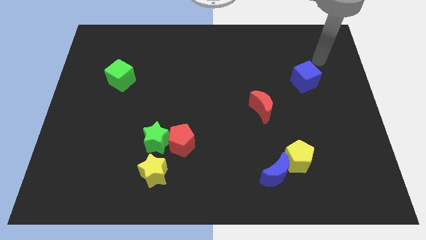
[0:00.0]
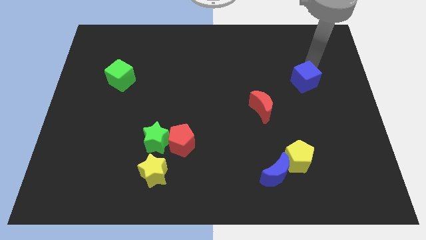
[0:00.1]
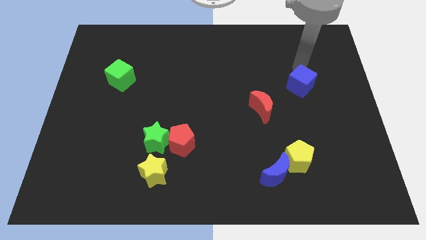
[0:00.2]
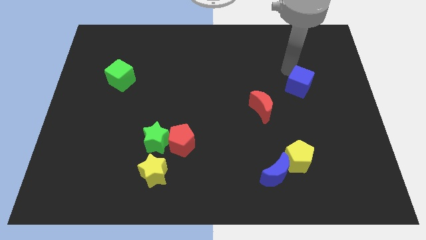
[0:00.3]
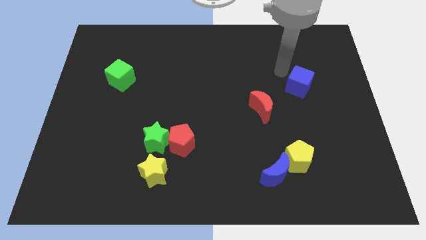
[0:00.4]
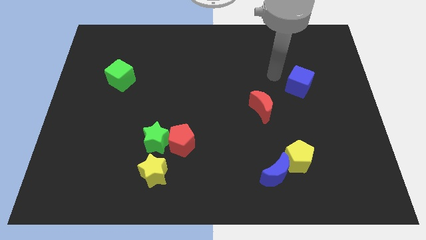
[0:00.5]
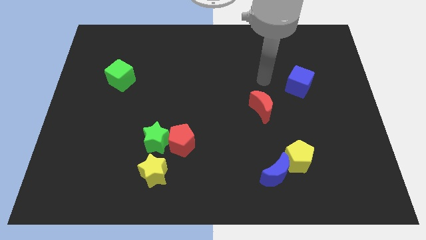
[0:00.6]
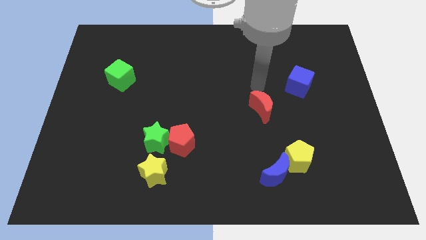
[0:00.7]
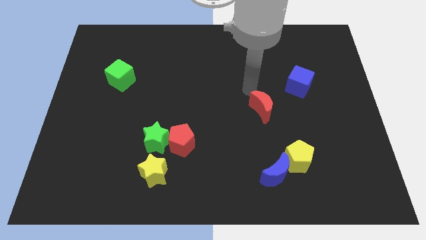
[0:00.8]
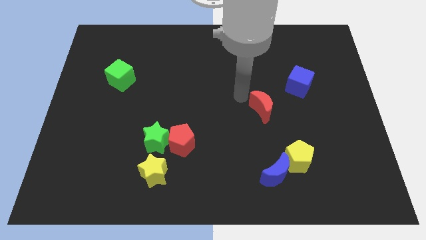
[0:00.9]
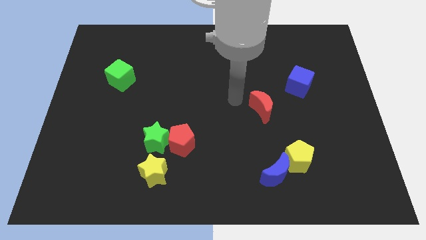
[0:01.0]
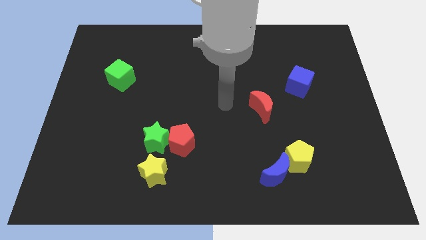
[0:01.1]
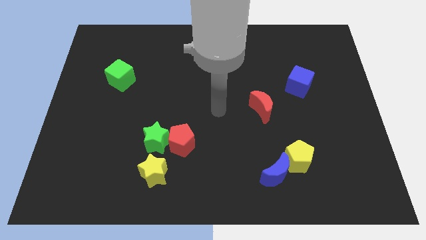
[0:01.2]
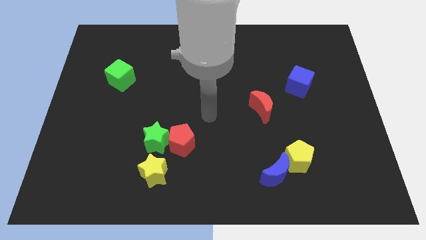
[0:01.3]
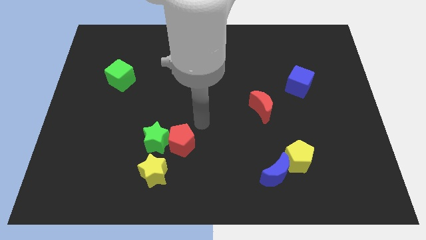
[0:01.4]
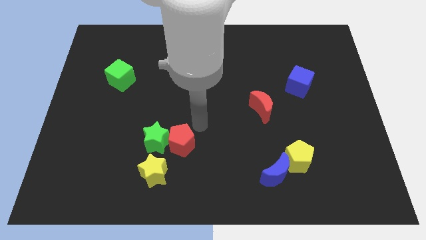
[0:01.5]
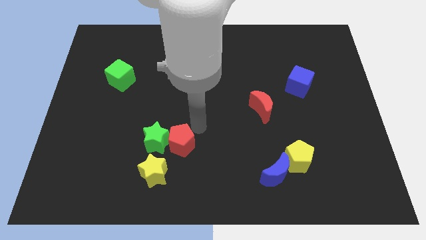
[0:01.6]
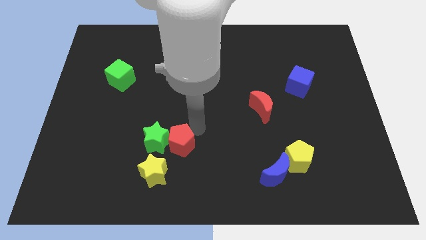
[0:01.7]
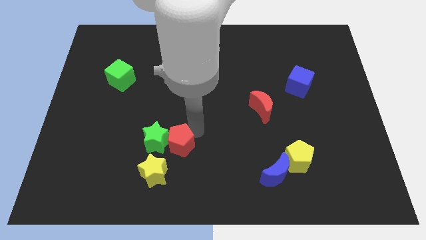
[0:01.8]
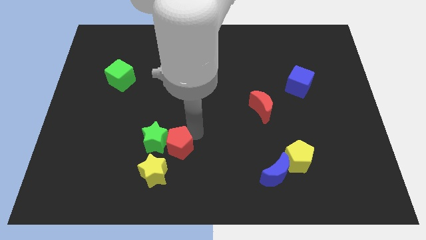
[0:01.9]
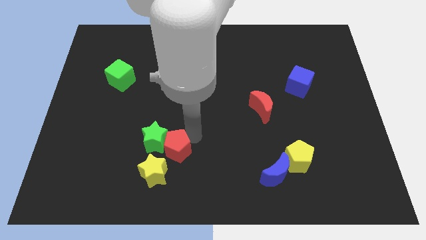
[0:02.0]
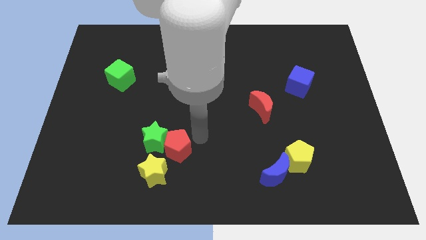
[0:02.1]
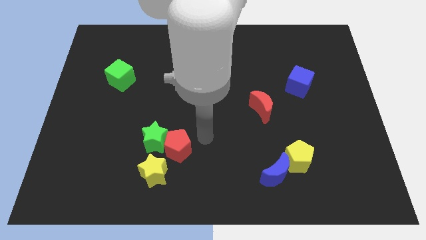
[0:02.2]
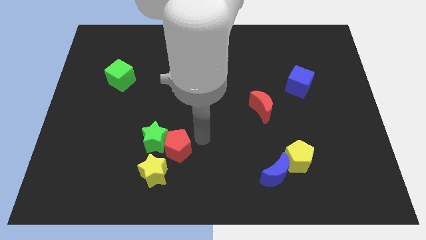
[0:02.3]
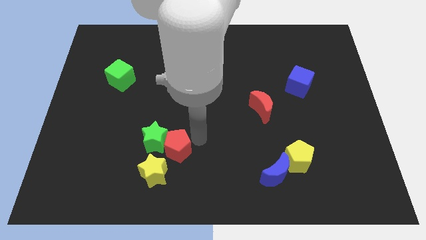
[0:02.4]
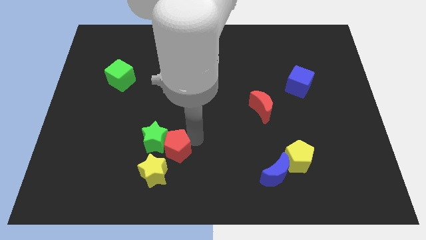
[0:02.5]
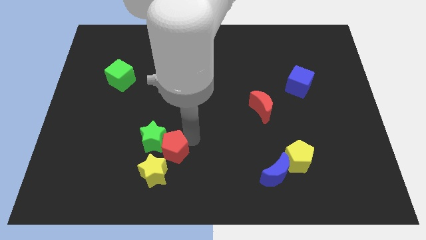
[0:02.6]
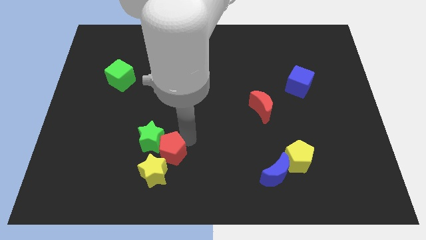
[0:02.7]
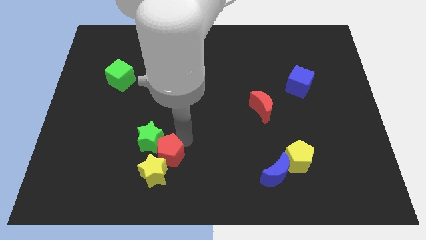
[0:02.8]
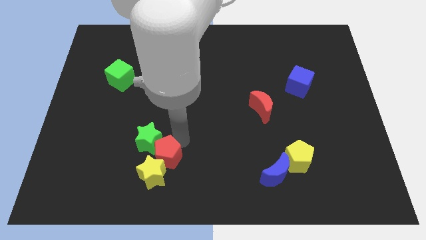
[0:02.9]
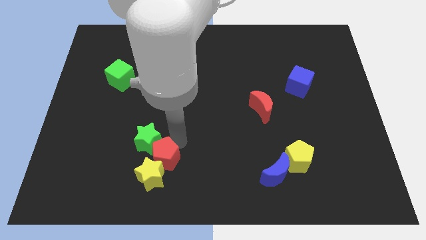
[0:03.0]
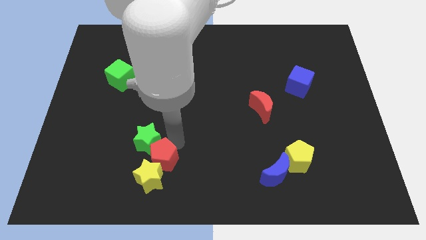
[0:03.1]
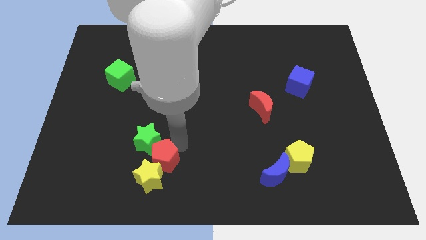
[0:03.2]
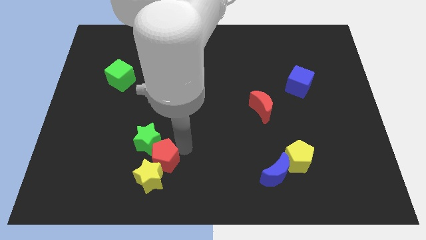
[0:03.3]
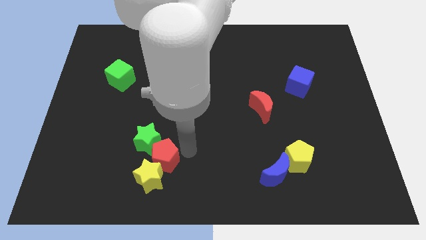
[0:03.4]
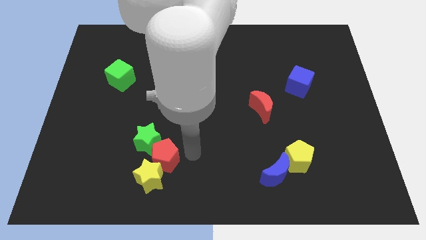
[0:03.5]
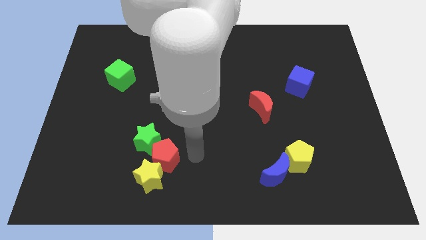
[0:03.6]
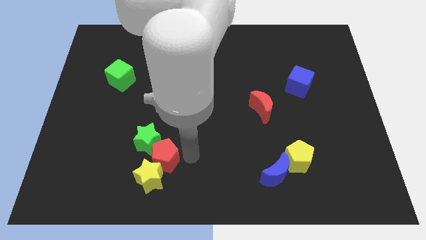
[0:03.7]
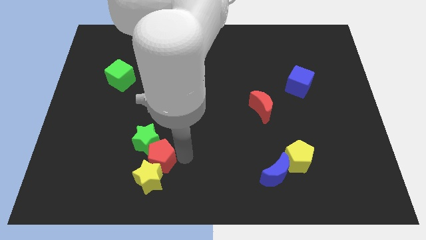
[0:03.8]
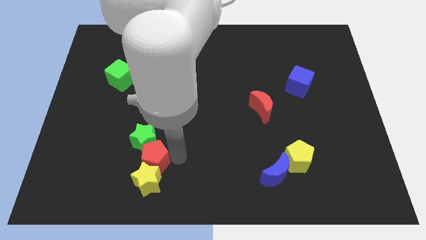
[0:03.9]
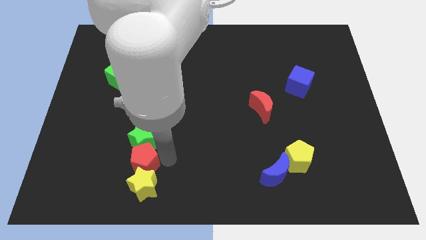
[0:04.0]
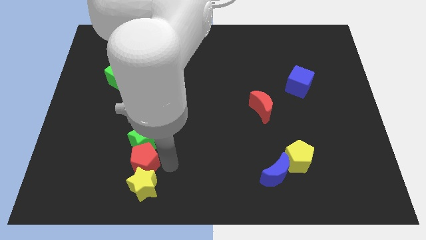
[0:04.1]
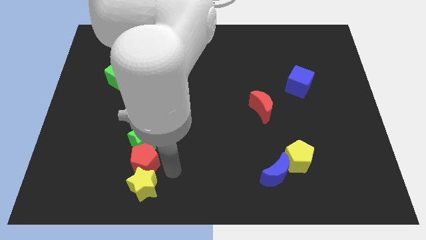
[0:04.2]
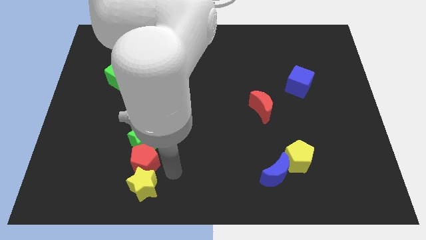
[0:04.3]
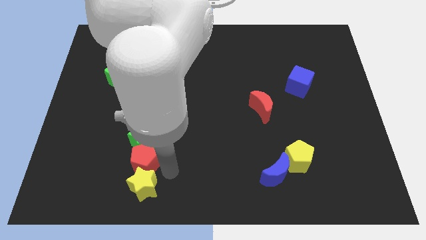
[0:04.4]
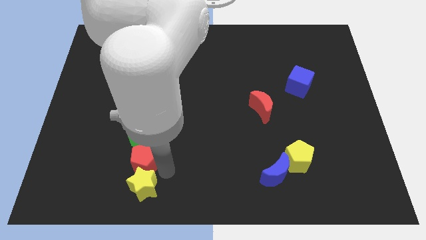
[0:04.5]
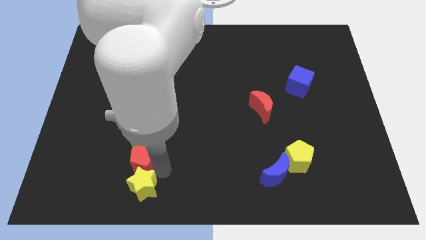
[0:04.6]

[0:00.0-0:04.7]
push the red pentagon a little to the left

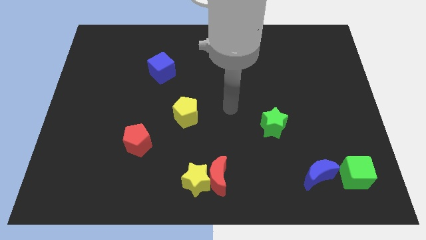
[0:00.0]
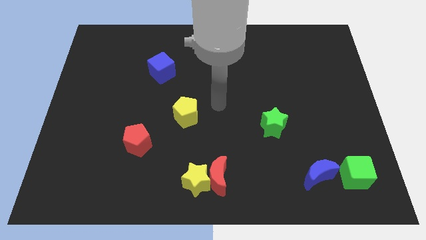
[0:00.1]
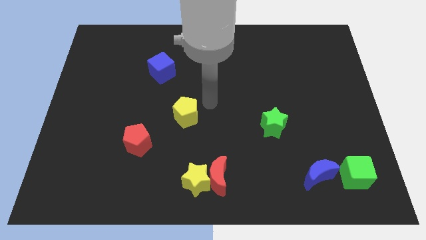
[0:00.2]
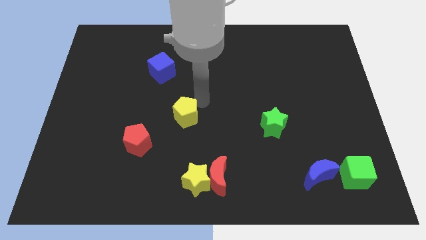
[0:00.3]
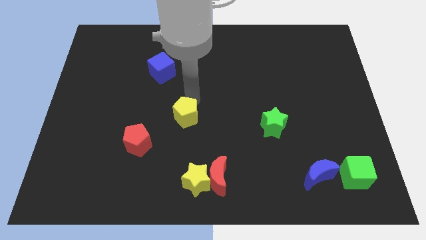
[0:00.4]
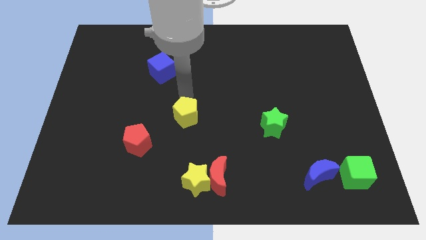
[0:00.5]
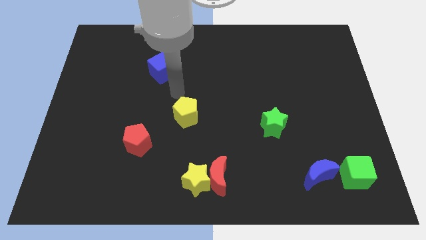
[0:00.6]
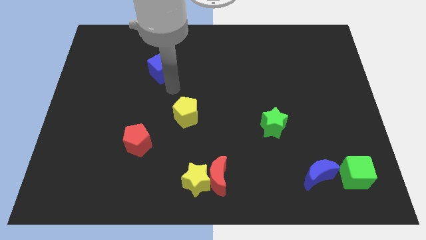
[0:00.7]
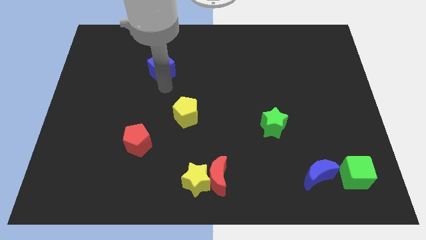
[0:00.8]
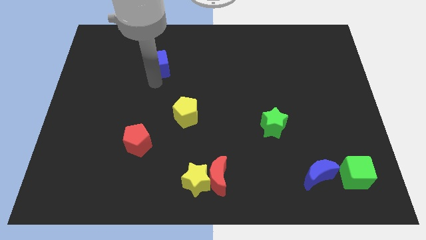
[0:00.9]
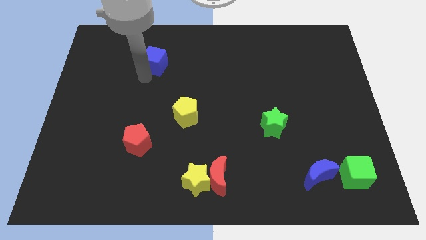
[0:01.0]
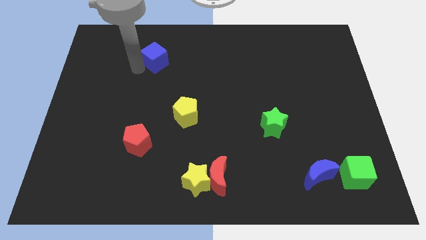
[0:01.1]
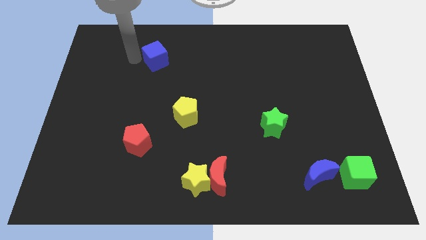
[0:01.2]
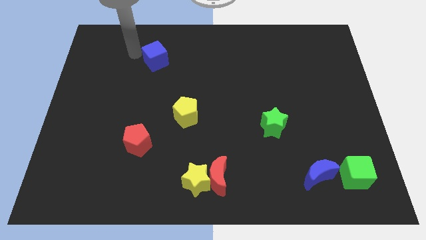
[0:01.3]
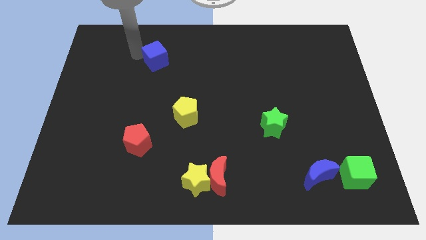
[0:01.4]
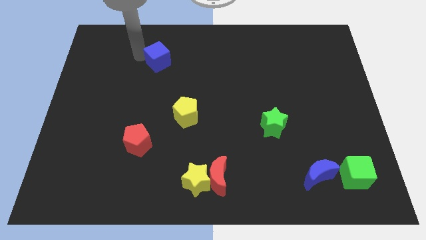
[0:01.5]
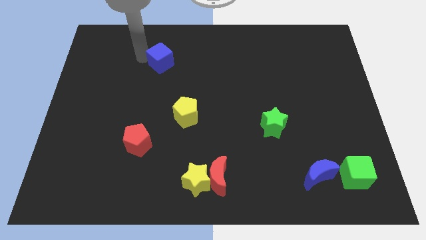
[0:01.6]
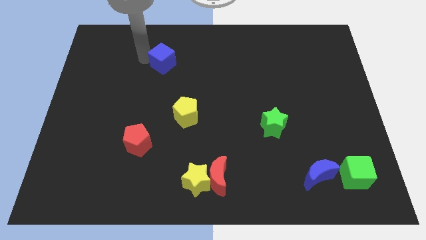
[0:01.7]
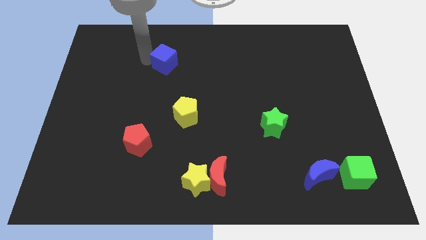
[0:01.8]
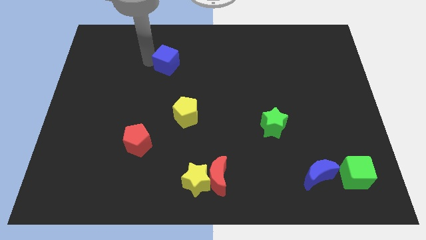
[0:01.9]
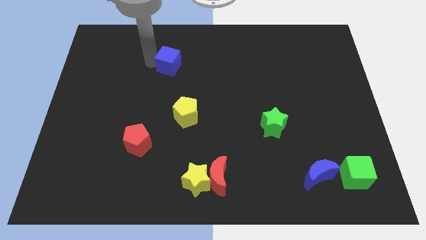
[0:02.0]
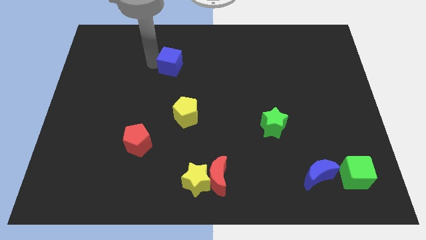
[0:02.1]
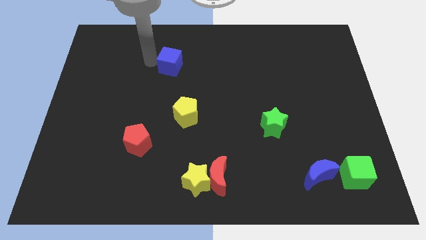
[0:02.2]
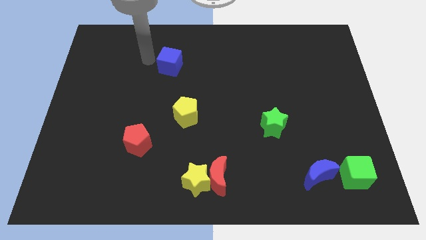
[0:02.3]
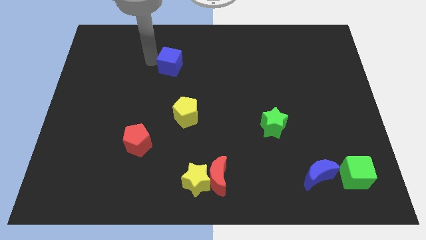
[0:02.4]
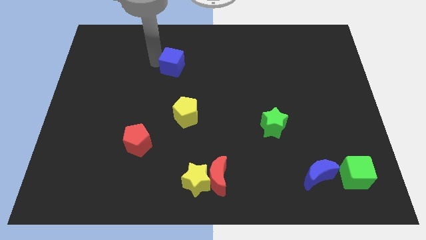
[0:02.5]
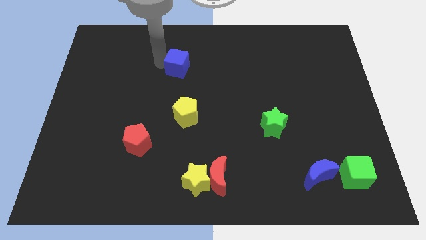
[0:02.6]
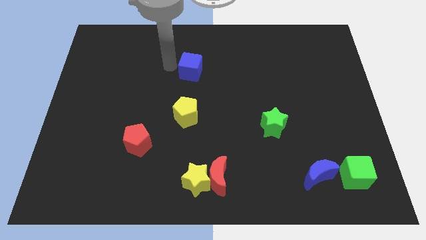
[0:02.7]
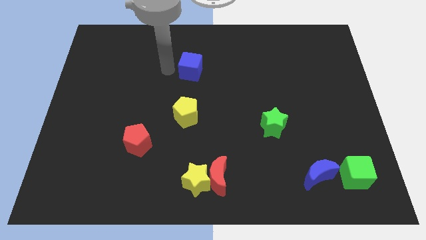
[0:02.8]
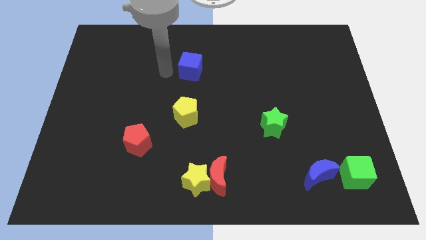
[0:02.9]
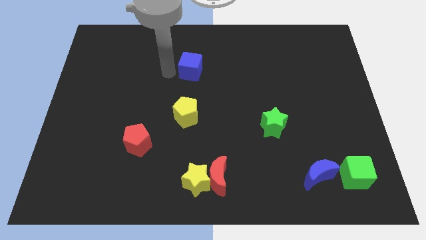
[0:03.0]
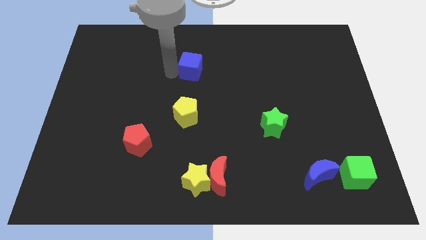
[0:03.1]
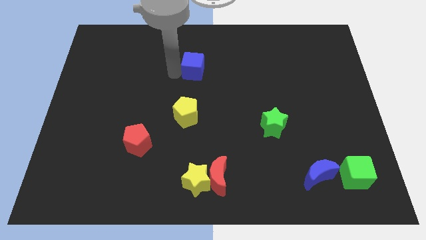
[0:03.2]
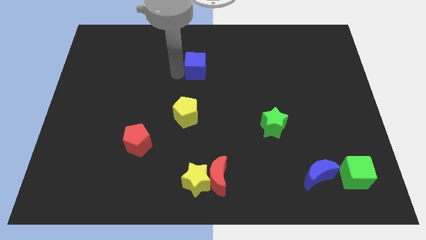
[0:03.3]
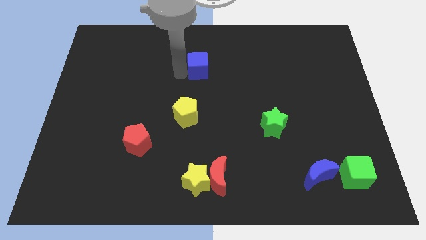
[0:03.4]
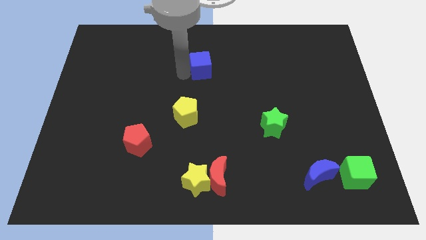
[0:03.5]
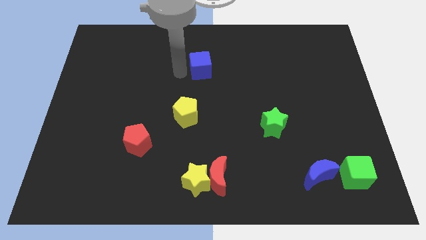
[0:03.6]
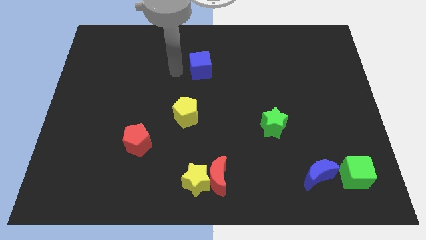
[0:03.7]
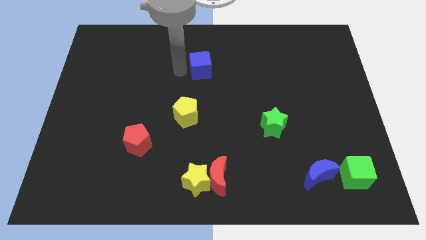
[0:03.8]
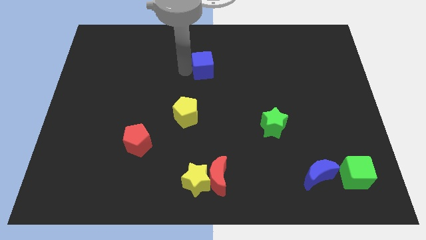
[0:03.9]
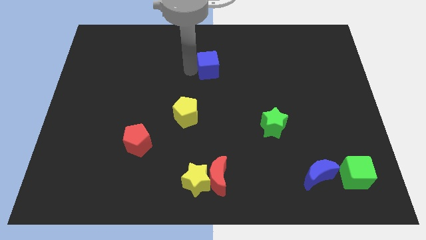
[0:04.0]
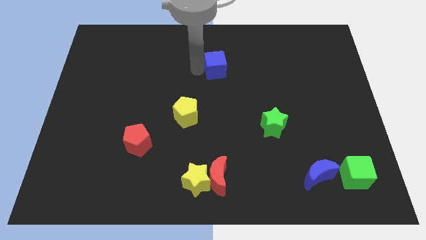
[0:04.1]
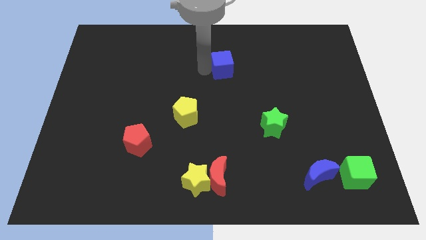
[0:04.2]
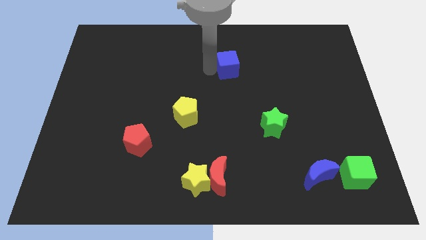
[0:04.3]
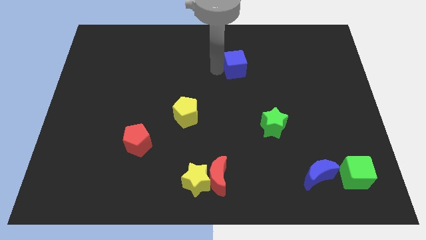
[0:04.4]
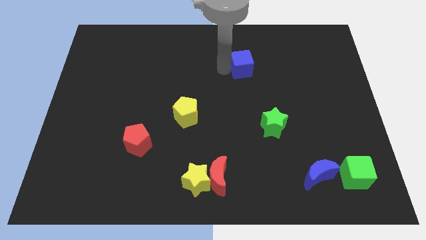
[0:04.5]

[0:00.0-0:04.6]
move the blue cube right
